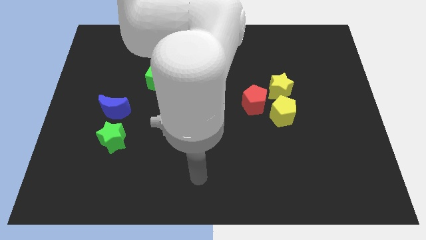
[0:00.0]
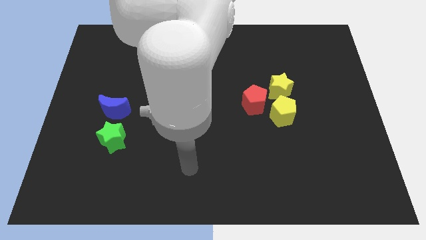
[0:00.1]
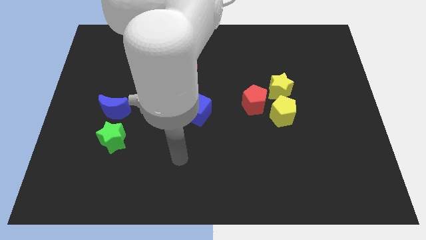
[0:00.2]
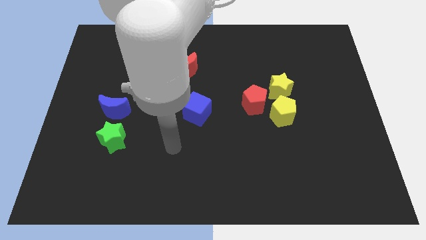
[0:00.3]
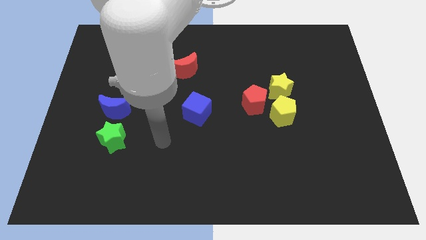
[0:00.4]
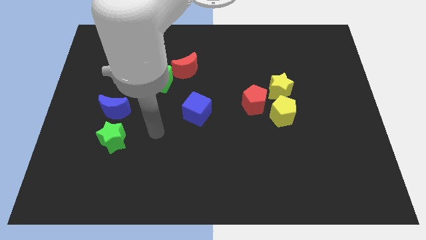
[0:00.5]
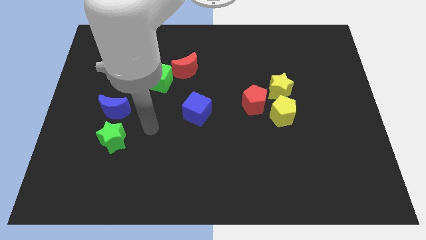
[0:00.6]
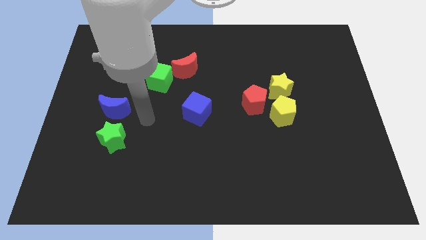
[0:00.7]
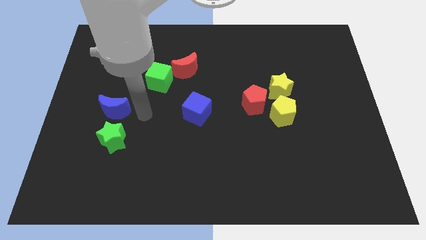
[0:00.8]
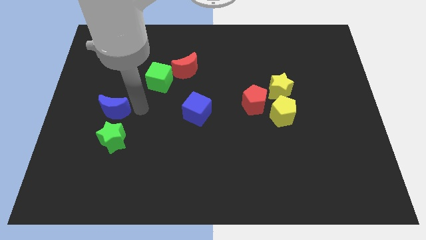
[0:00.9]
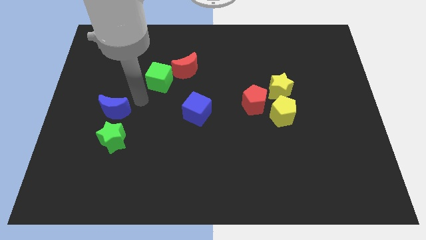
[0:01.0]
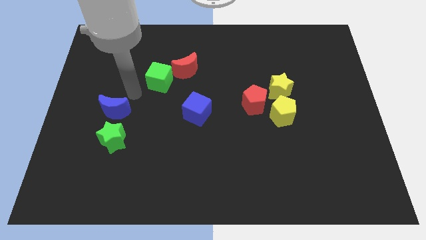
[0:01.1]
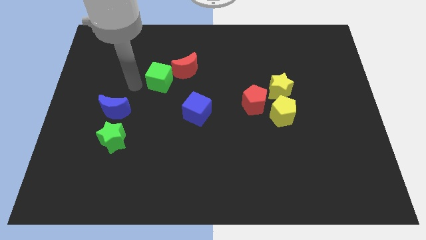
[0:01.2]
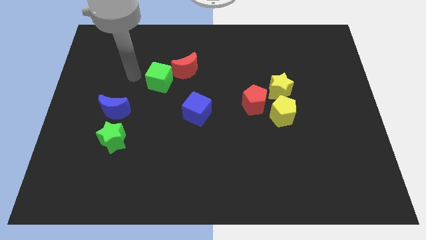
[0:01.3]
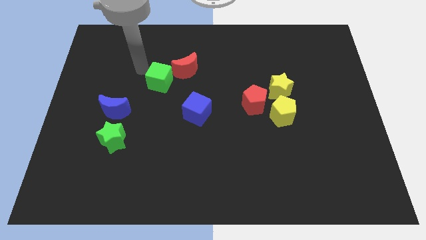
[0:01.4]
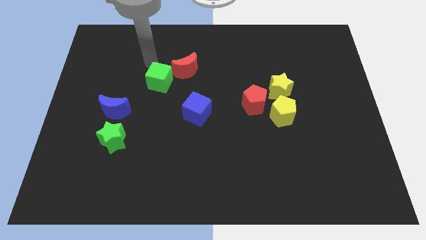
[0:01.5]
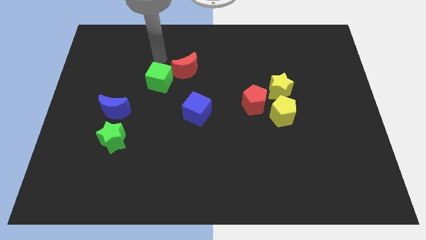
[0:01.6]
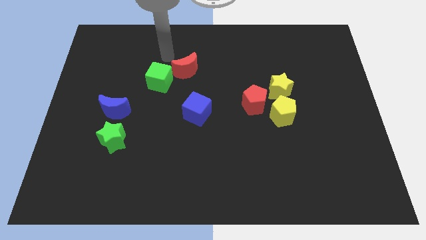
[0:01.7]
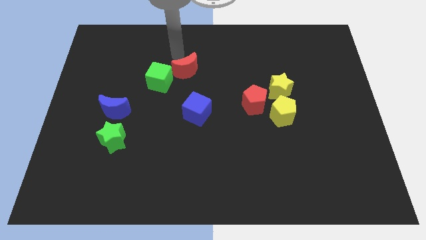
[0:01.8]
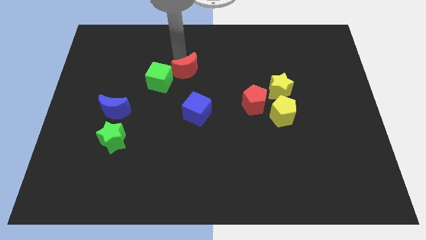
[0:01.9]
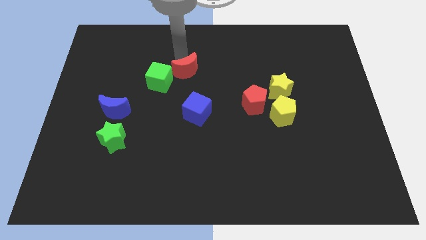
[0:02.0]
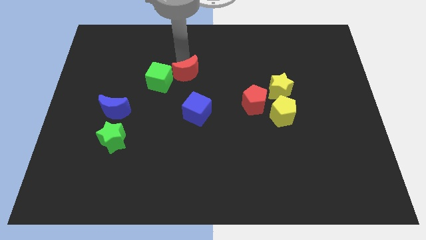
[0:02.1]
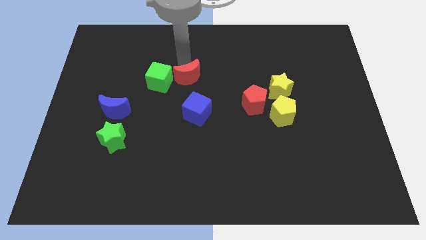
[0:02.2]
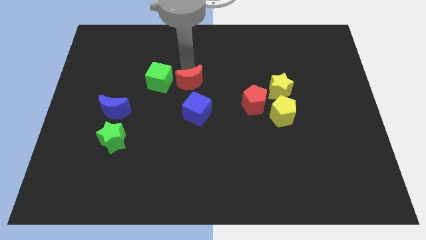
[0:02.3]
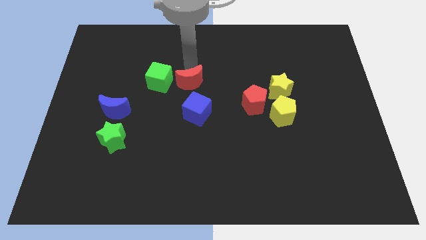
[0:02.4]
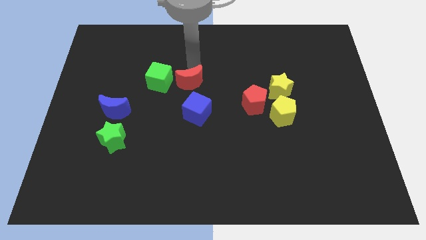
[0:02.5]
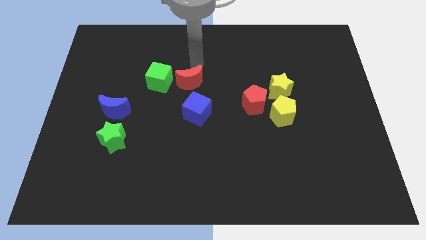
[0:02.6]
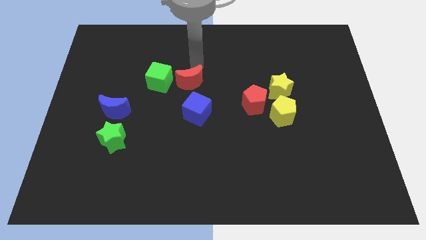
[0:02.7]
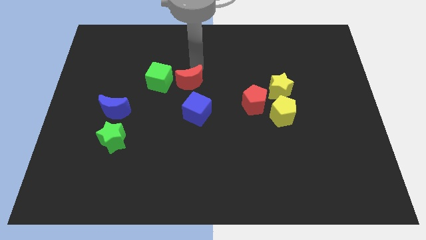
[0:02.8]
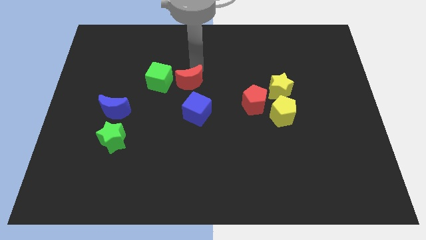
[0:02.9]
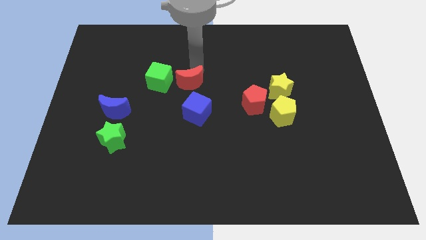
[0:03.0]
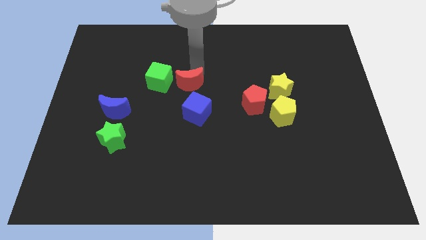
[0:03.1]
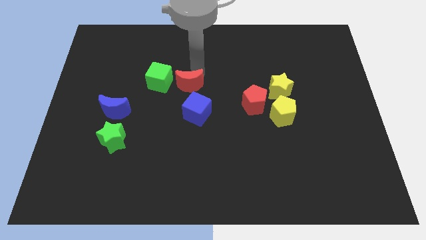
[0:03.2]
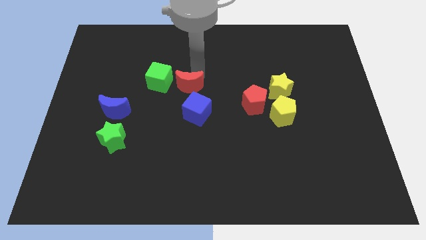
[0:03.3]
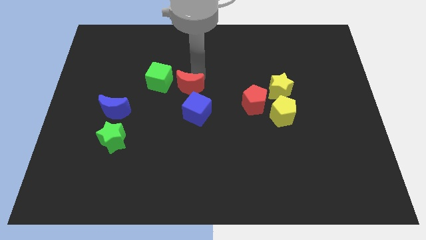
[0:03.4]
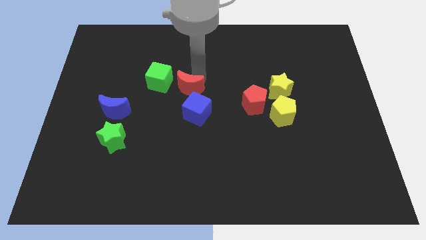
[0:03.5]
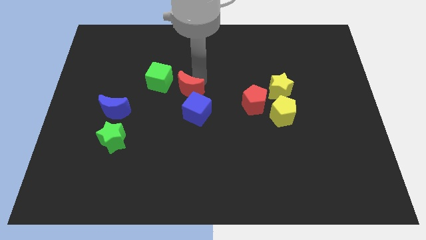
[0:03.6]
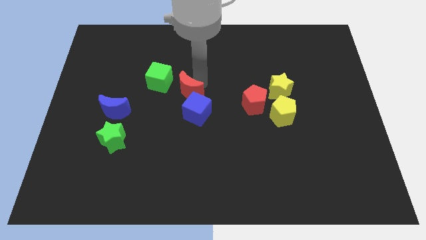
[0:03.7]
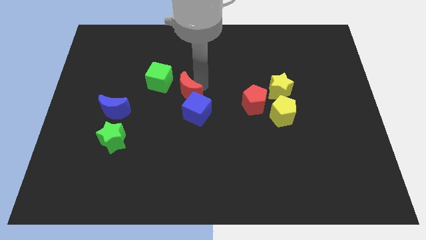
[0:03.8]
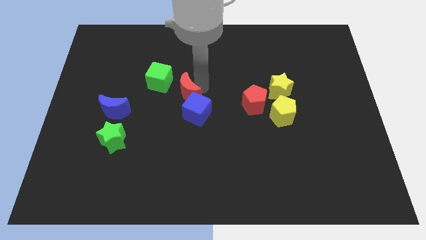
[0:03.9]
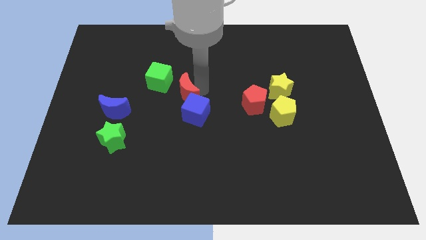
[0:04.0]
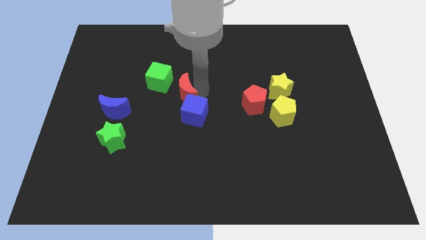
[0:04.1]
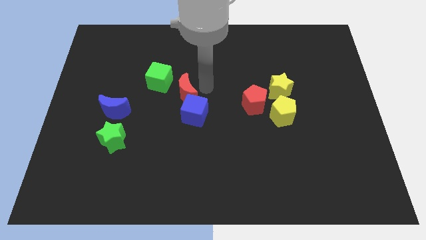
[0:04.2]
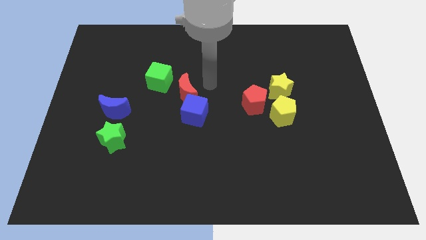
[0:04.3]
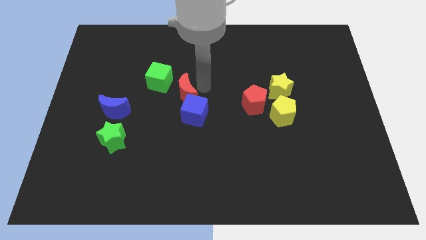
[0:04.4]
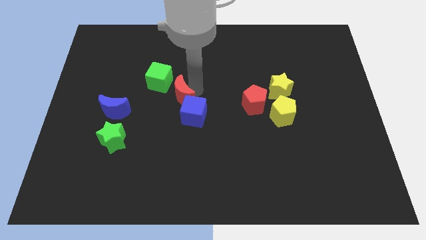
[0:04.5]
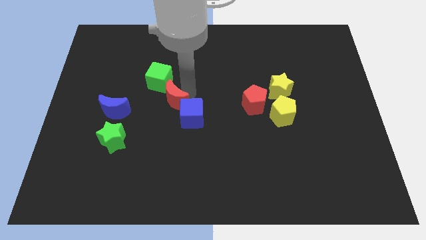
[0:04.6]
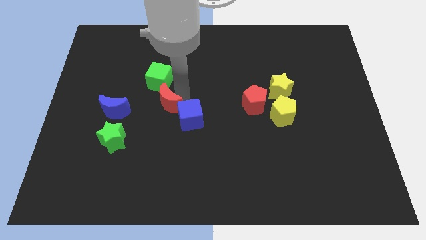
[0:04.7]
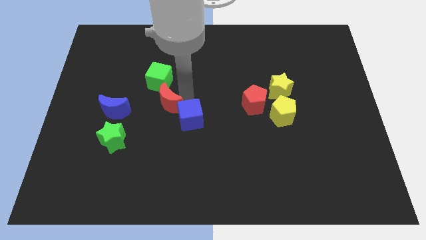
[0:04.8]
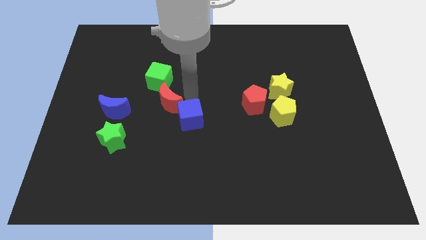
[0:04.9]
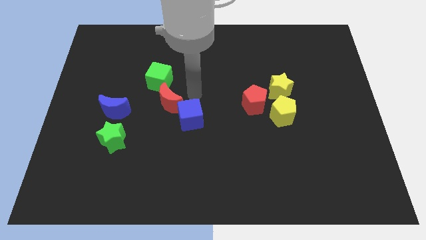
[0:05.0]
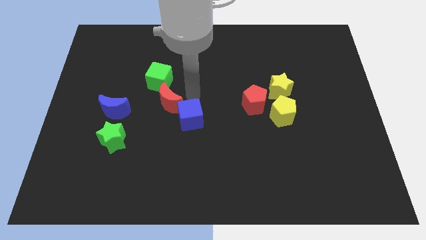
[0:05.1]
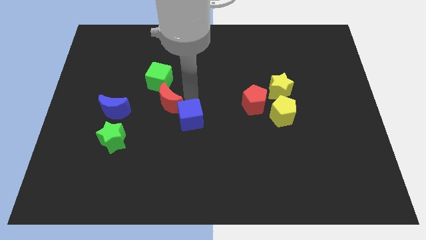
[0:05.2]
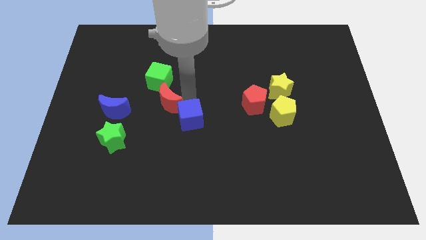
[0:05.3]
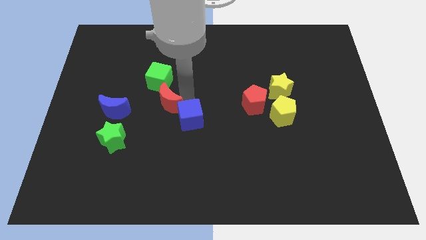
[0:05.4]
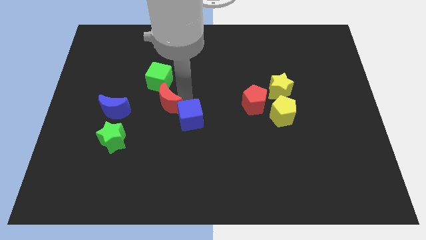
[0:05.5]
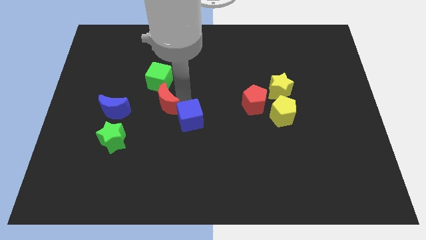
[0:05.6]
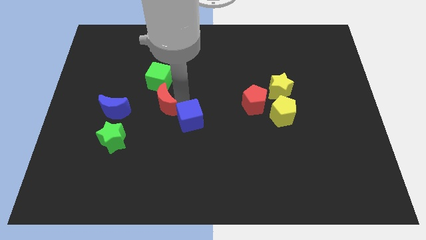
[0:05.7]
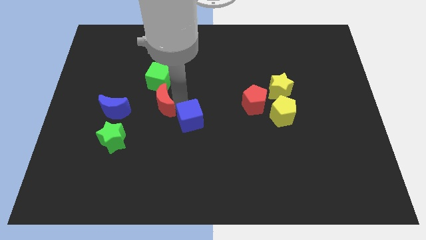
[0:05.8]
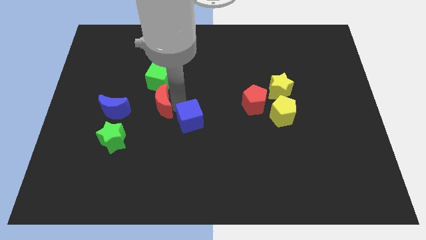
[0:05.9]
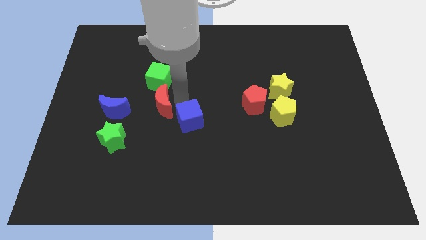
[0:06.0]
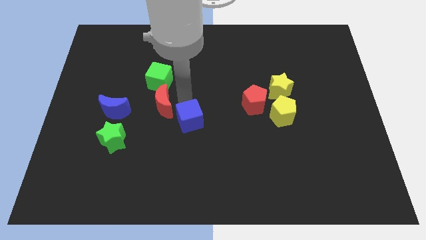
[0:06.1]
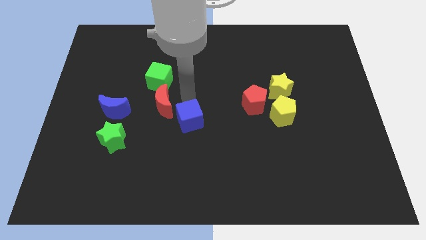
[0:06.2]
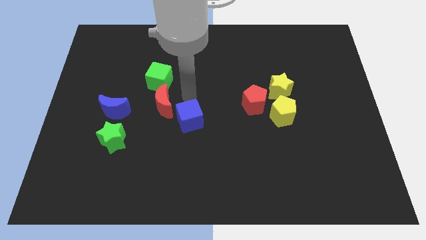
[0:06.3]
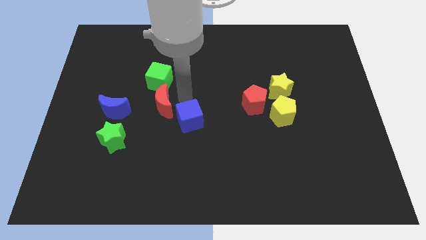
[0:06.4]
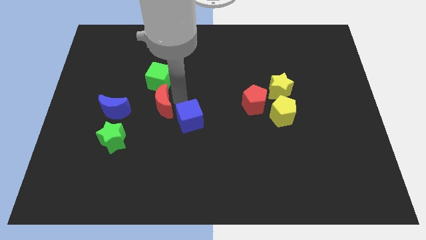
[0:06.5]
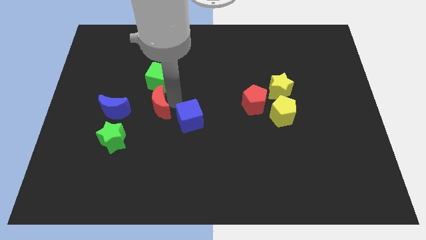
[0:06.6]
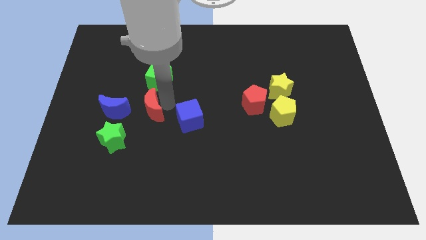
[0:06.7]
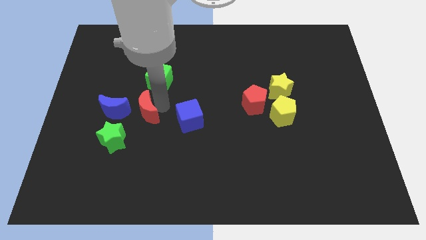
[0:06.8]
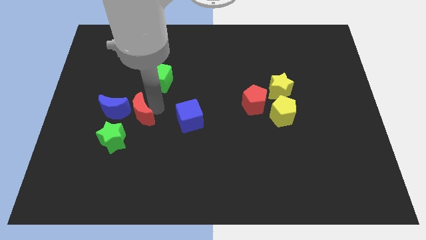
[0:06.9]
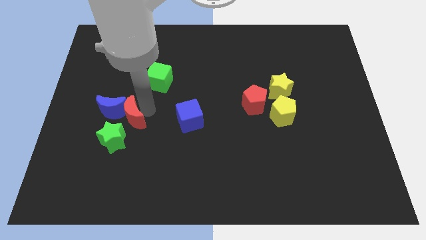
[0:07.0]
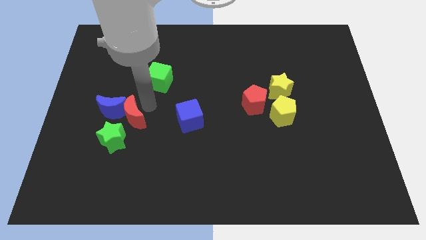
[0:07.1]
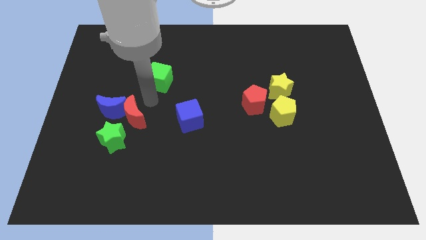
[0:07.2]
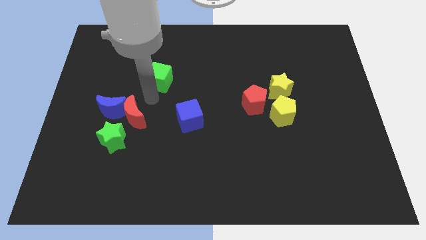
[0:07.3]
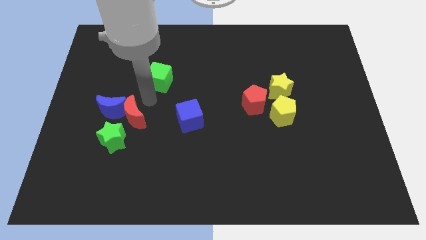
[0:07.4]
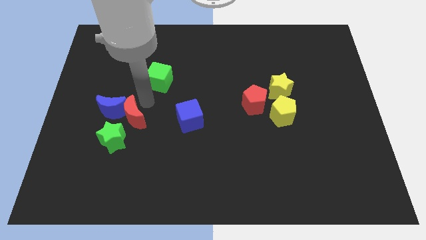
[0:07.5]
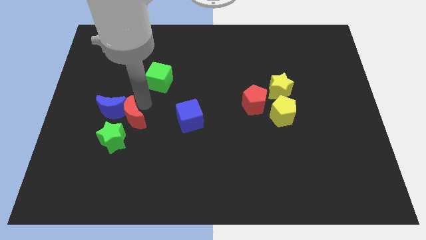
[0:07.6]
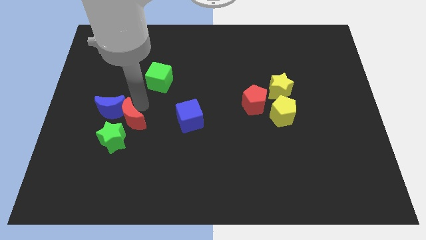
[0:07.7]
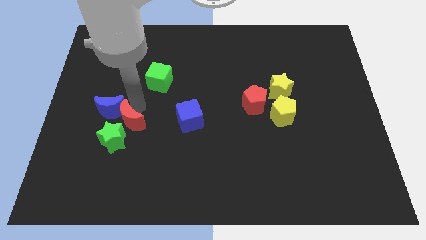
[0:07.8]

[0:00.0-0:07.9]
move the red moon next to the green star
